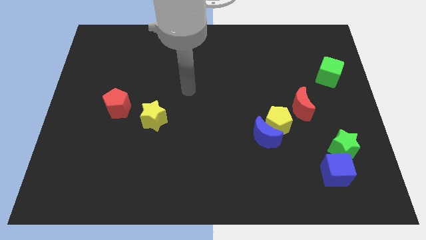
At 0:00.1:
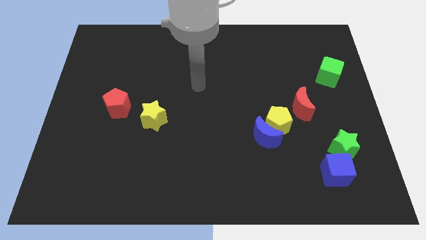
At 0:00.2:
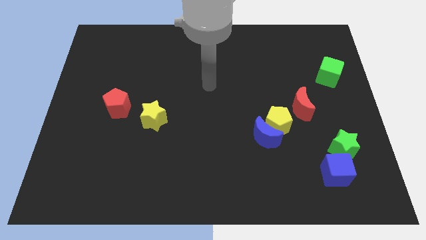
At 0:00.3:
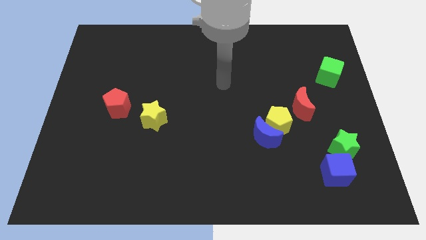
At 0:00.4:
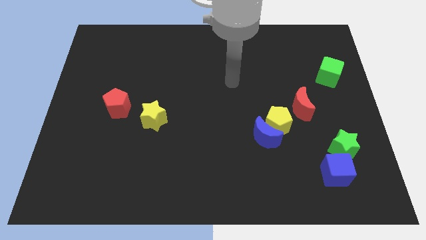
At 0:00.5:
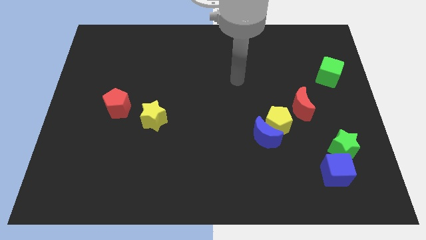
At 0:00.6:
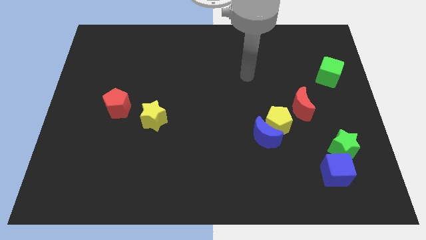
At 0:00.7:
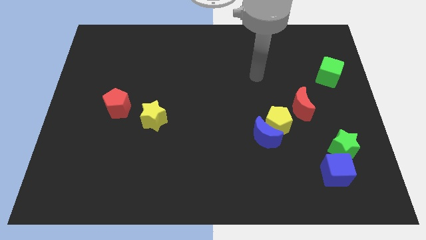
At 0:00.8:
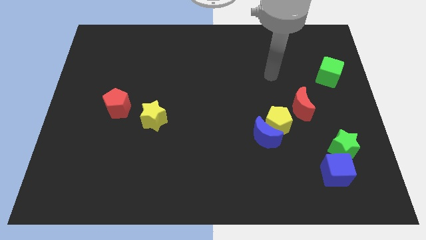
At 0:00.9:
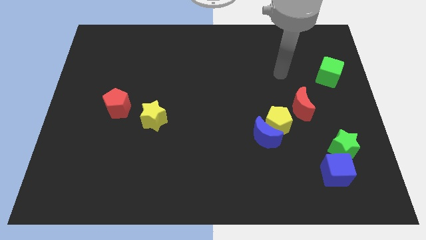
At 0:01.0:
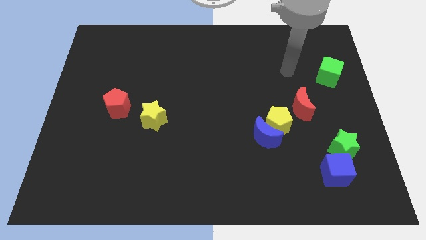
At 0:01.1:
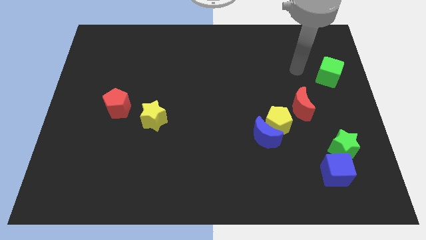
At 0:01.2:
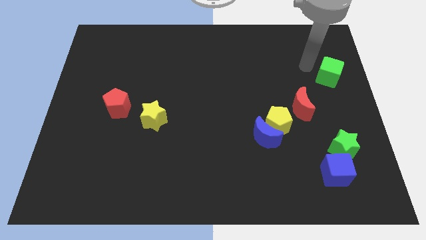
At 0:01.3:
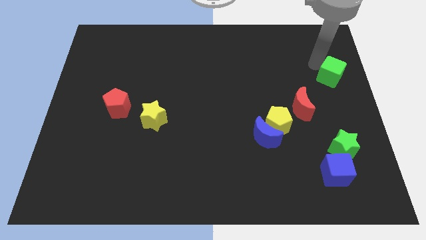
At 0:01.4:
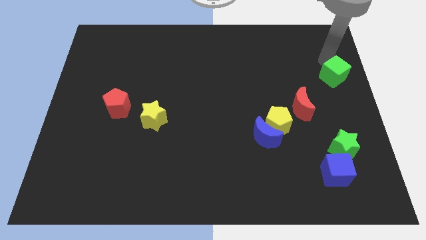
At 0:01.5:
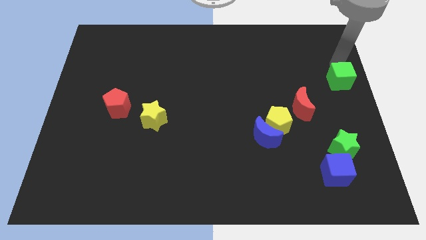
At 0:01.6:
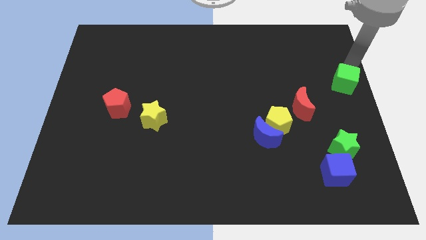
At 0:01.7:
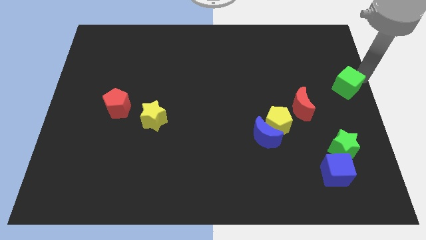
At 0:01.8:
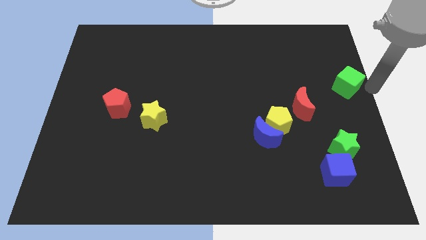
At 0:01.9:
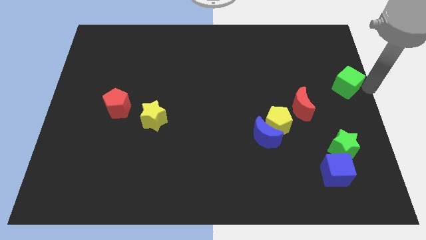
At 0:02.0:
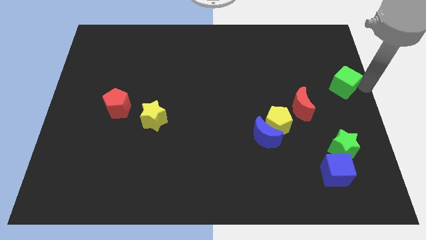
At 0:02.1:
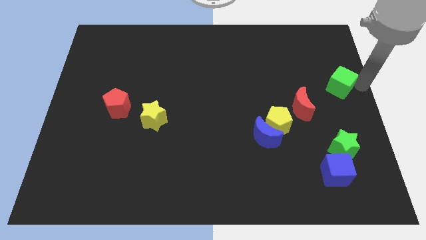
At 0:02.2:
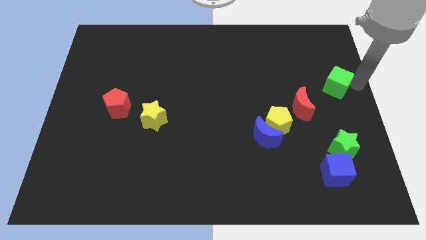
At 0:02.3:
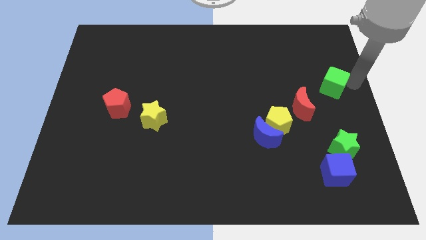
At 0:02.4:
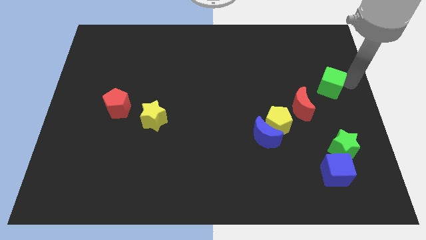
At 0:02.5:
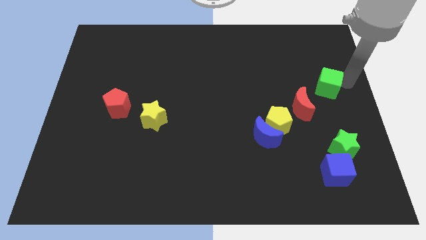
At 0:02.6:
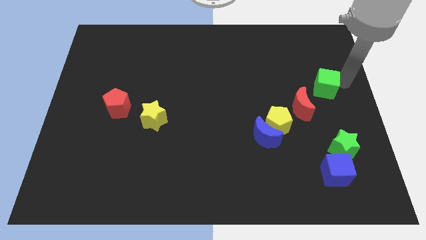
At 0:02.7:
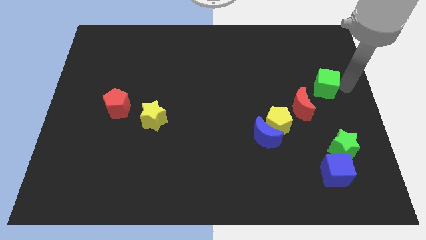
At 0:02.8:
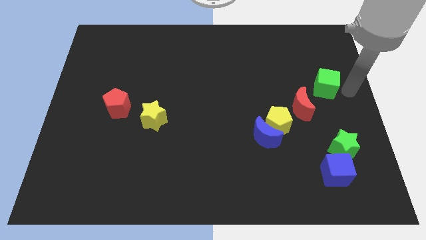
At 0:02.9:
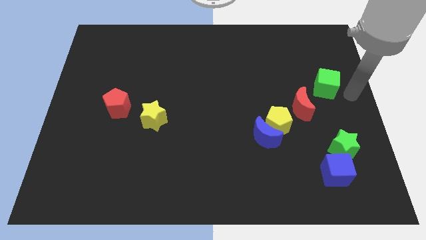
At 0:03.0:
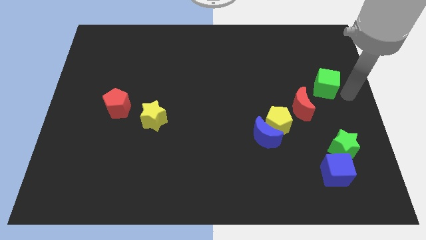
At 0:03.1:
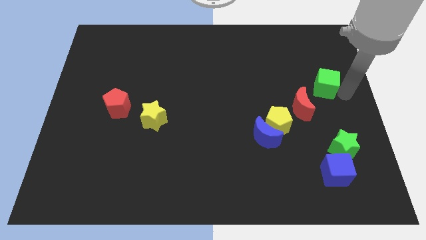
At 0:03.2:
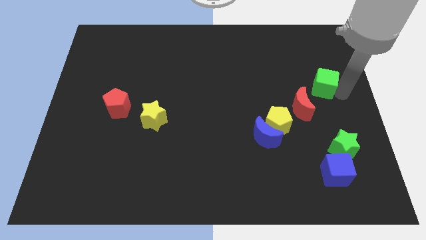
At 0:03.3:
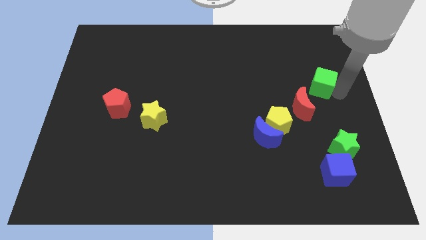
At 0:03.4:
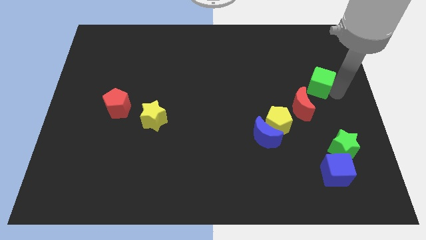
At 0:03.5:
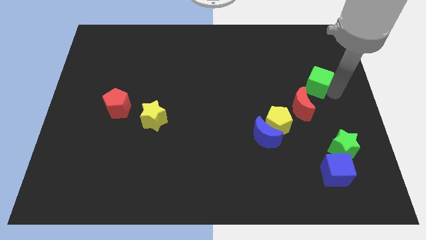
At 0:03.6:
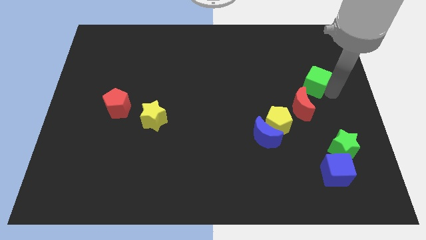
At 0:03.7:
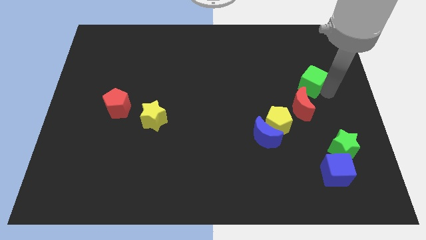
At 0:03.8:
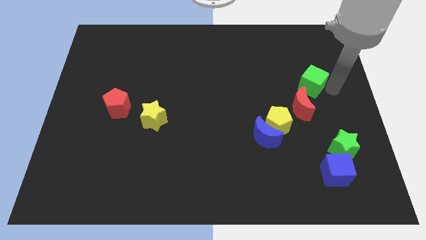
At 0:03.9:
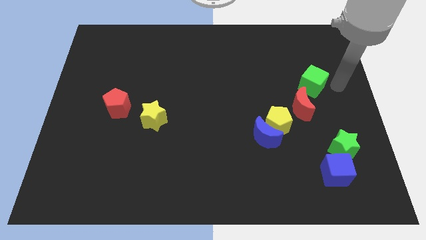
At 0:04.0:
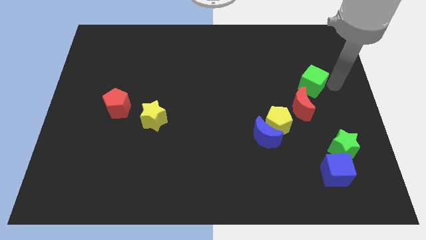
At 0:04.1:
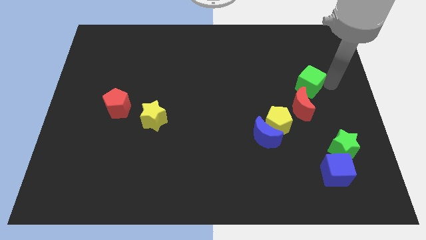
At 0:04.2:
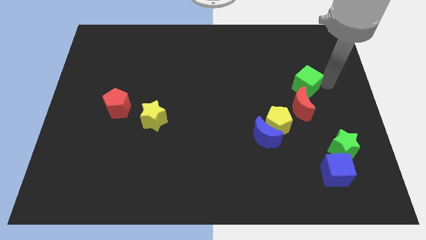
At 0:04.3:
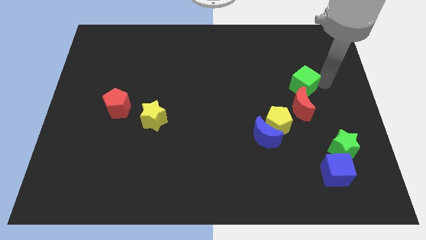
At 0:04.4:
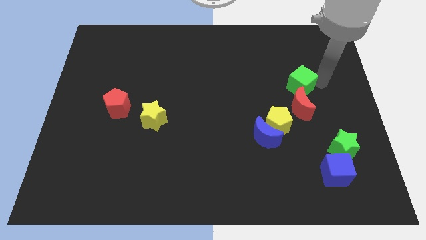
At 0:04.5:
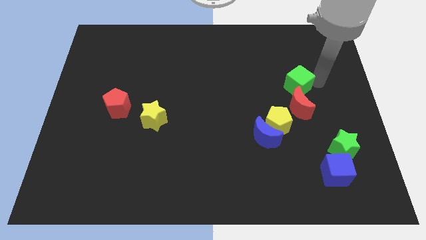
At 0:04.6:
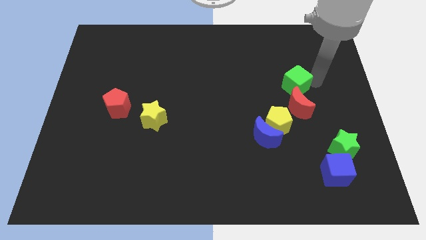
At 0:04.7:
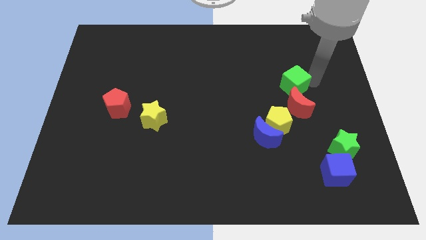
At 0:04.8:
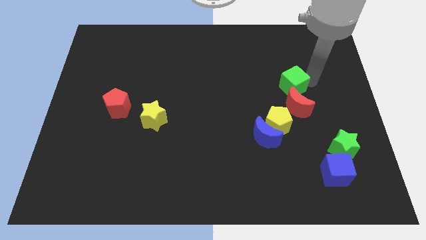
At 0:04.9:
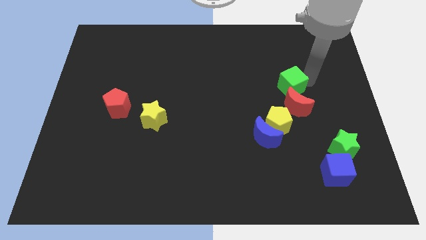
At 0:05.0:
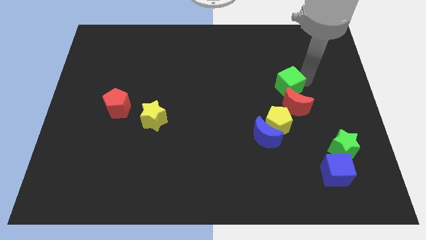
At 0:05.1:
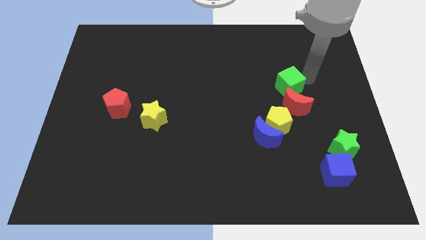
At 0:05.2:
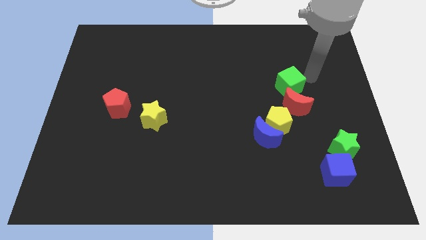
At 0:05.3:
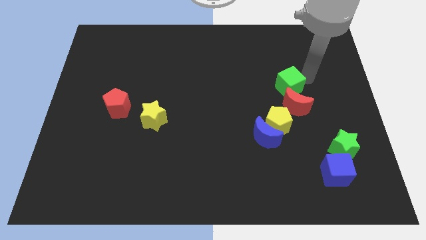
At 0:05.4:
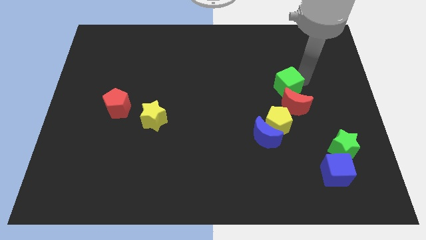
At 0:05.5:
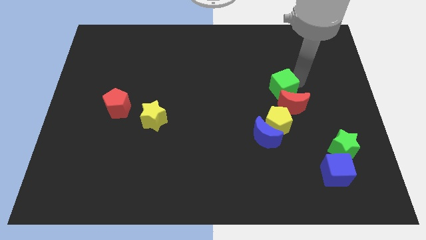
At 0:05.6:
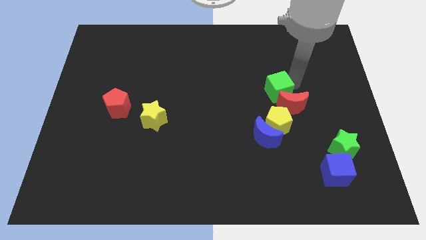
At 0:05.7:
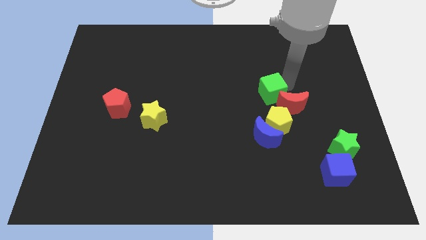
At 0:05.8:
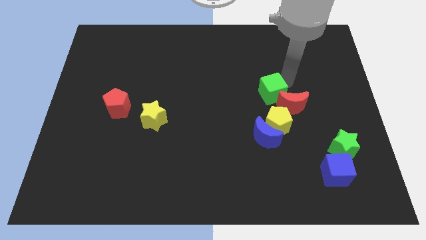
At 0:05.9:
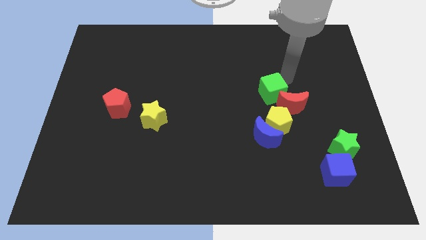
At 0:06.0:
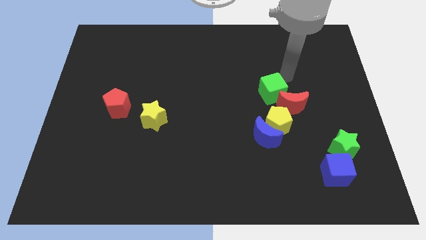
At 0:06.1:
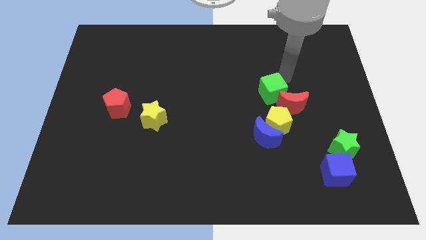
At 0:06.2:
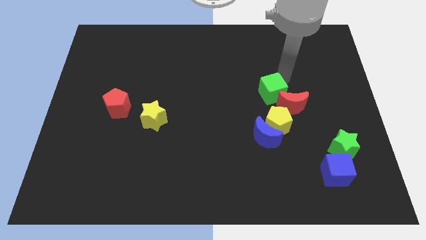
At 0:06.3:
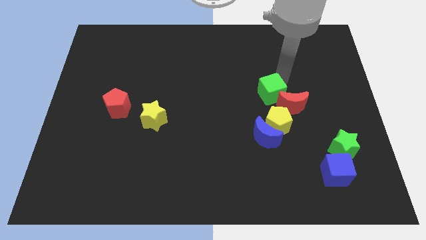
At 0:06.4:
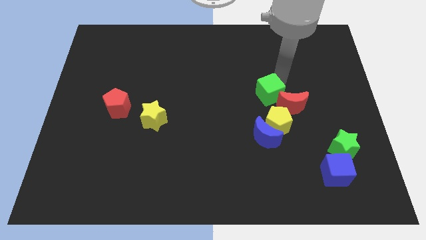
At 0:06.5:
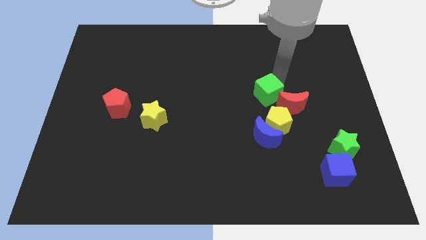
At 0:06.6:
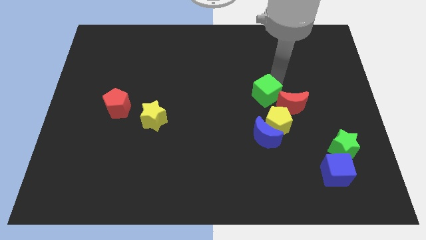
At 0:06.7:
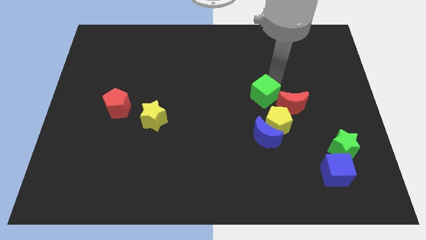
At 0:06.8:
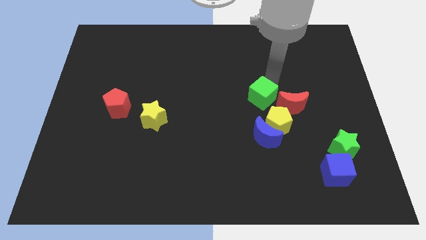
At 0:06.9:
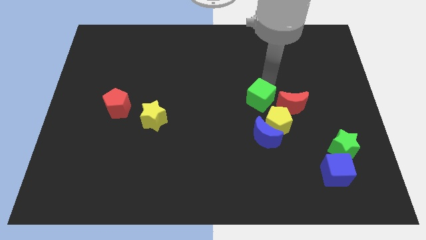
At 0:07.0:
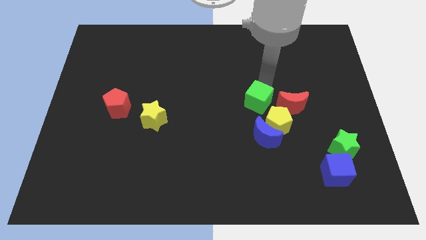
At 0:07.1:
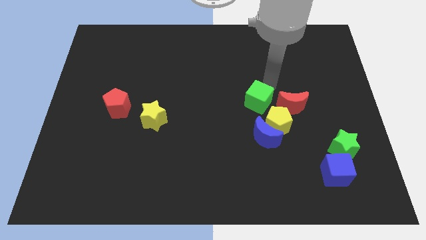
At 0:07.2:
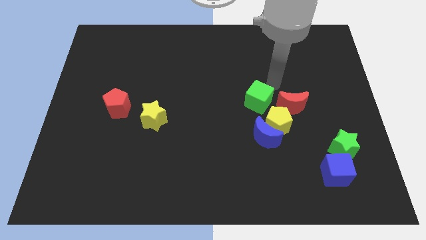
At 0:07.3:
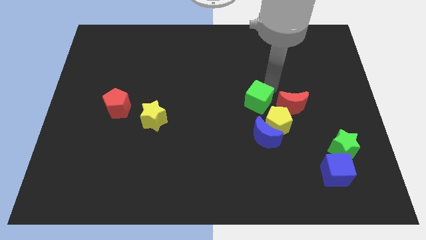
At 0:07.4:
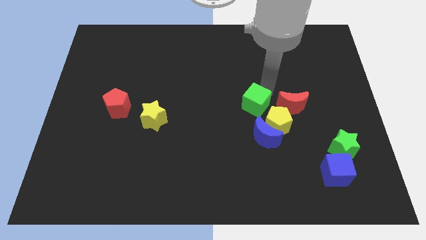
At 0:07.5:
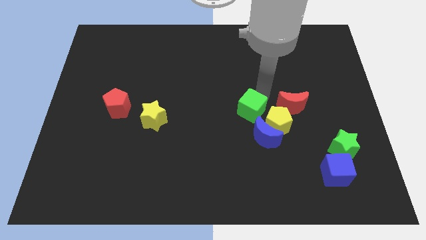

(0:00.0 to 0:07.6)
move the green cube to the top left of the blue moon
